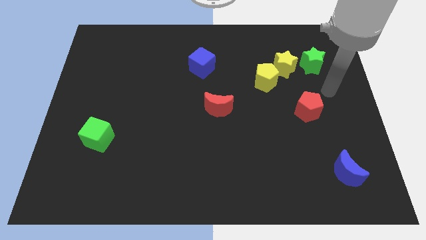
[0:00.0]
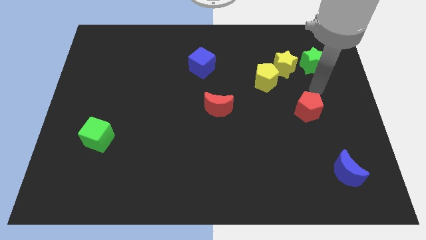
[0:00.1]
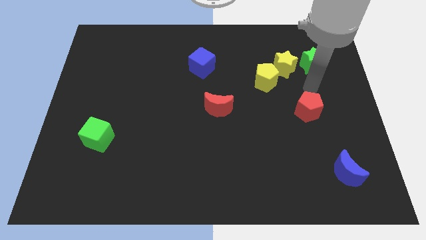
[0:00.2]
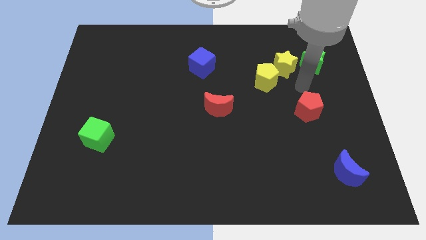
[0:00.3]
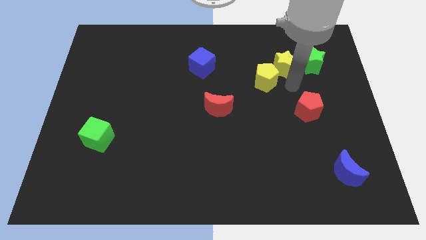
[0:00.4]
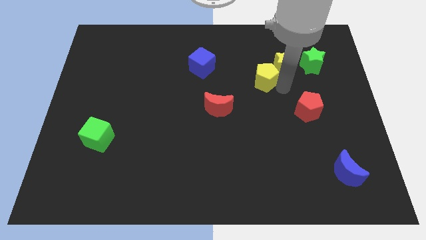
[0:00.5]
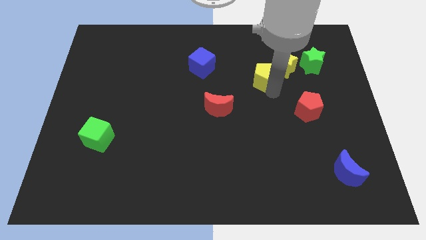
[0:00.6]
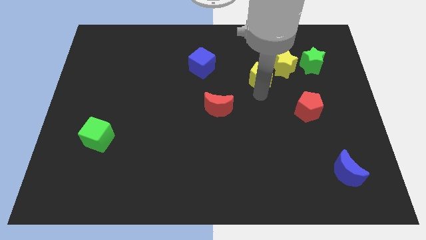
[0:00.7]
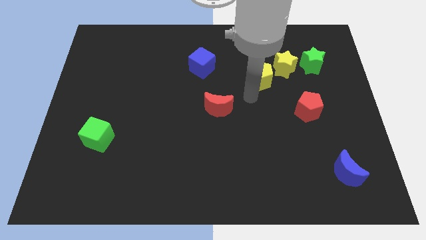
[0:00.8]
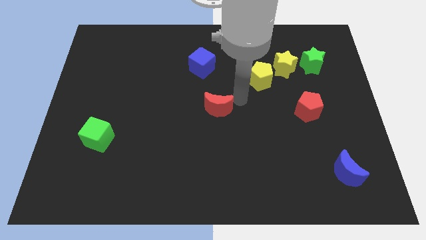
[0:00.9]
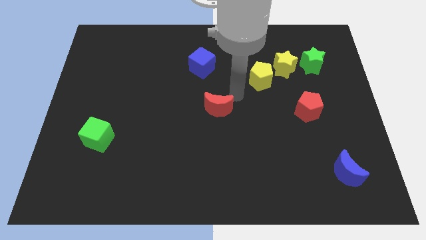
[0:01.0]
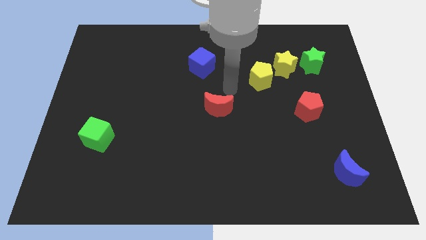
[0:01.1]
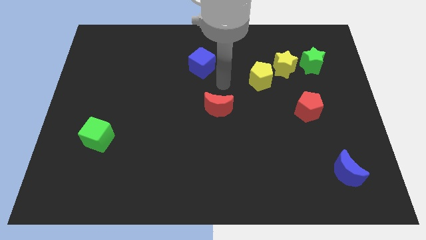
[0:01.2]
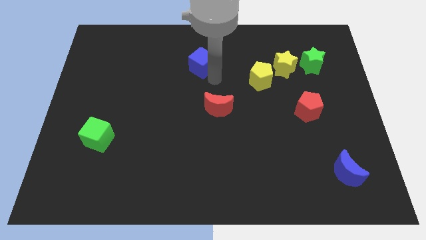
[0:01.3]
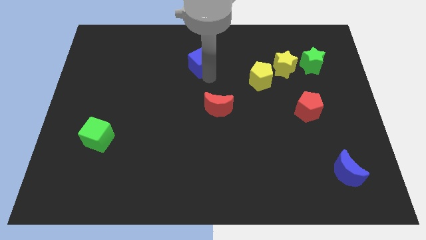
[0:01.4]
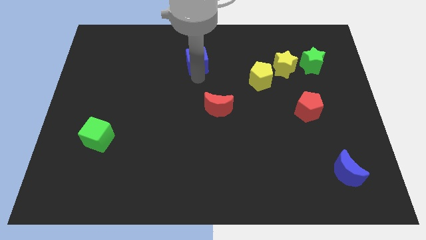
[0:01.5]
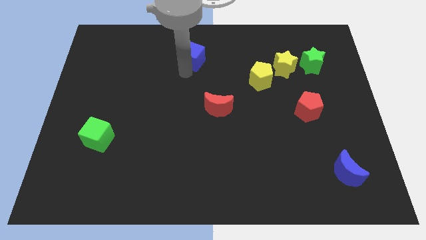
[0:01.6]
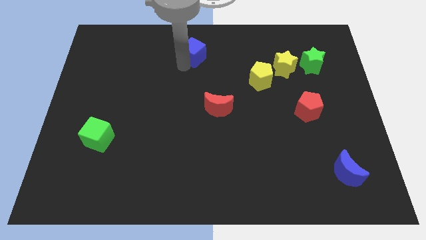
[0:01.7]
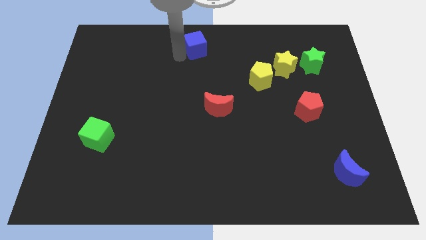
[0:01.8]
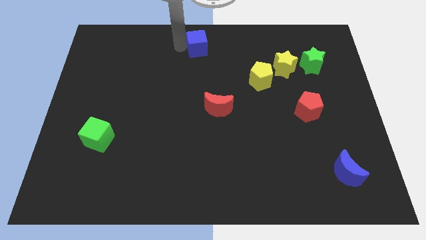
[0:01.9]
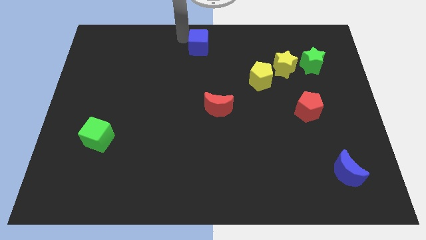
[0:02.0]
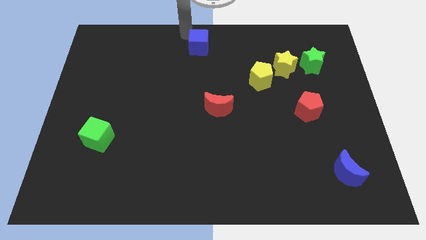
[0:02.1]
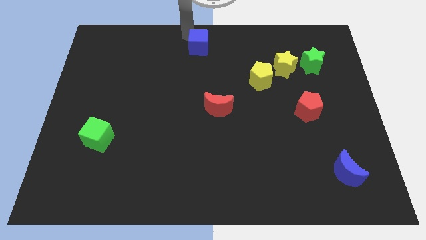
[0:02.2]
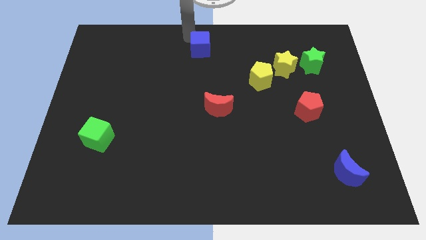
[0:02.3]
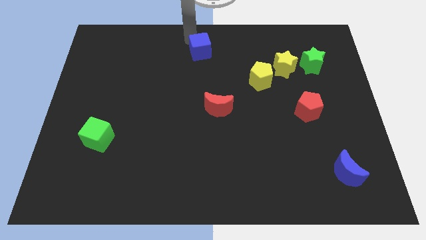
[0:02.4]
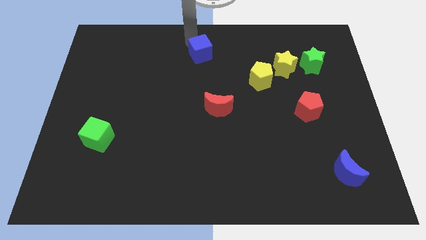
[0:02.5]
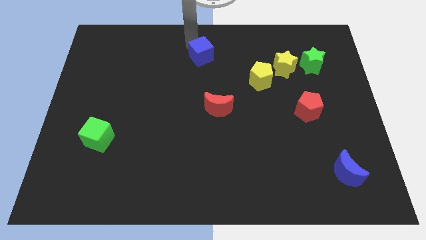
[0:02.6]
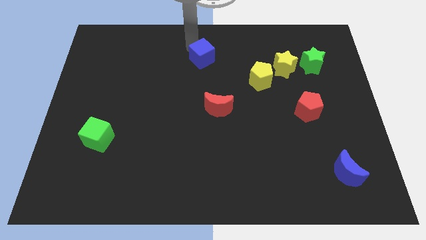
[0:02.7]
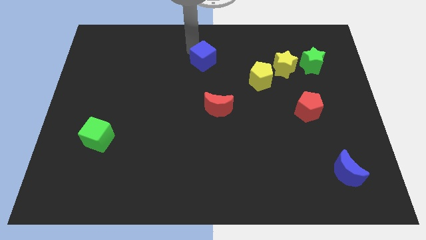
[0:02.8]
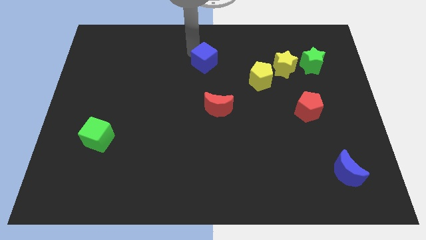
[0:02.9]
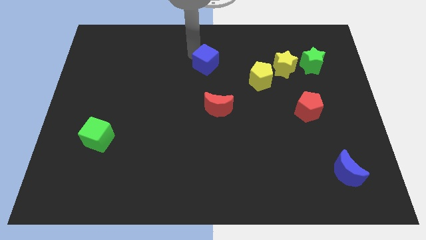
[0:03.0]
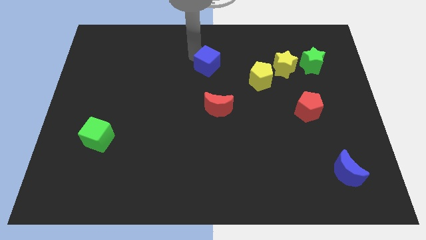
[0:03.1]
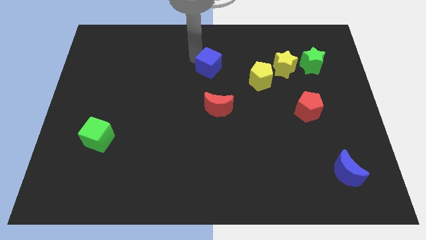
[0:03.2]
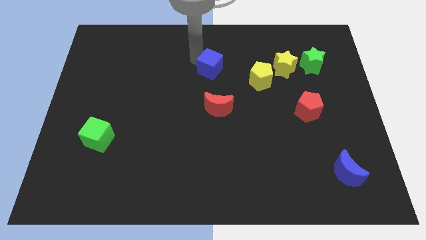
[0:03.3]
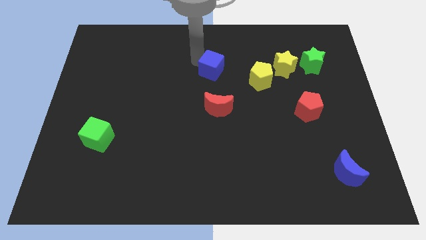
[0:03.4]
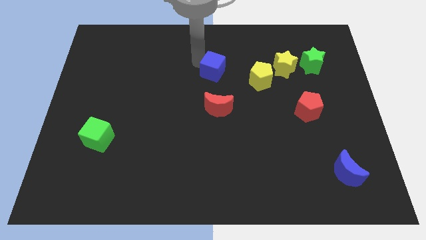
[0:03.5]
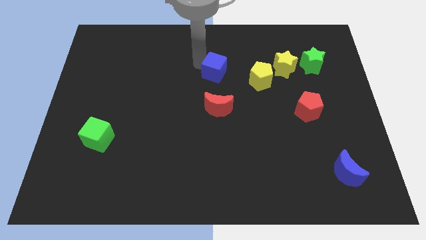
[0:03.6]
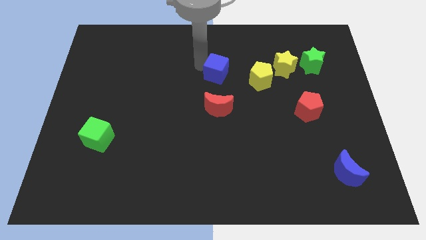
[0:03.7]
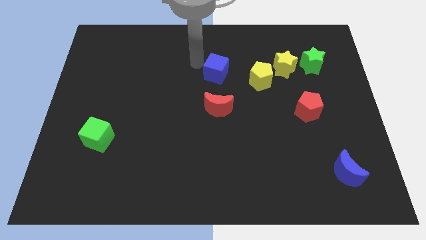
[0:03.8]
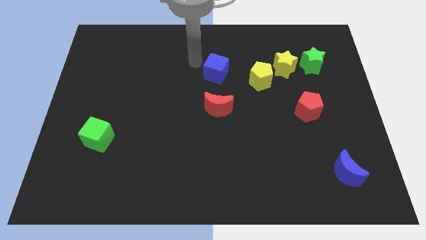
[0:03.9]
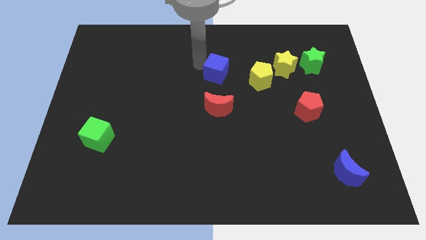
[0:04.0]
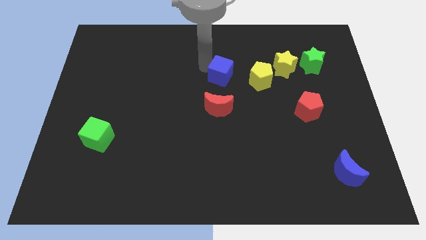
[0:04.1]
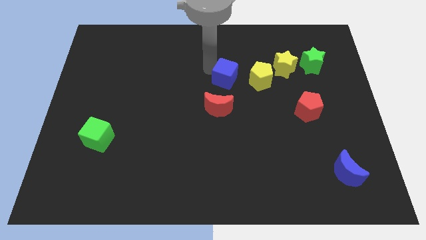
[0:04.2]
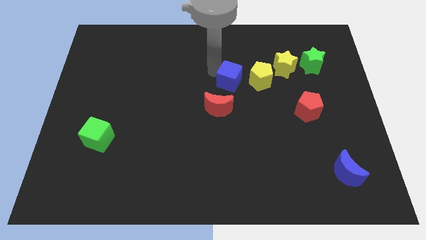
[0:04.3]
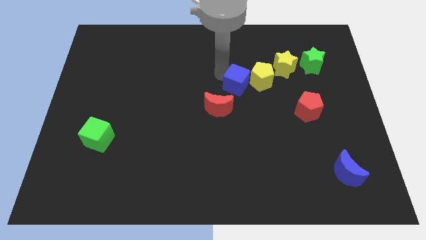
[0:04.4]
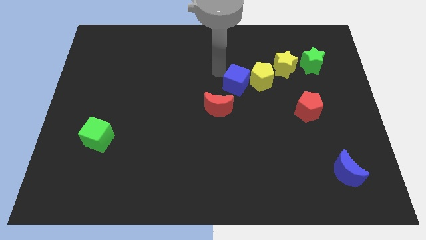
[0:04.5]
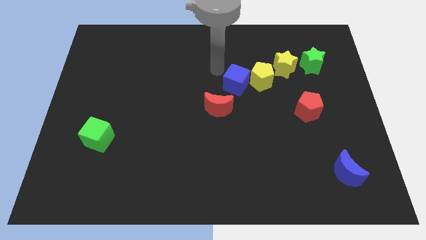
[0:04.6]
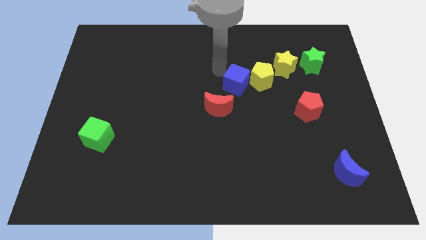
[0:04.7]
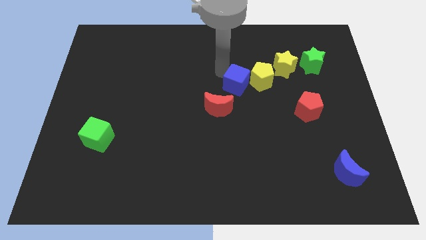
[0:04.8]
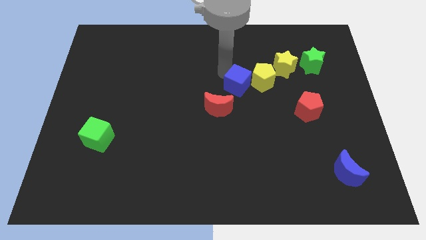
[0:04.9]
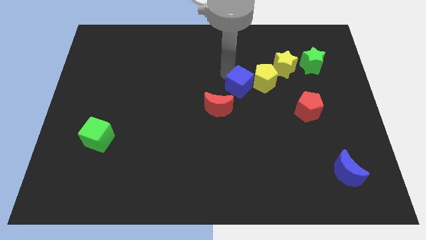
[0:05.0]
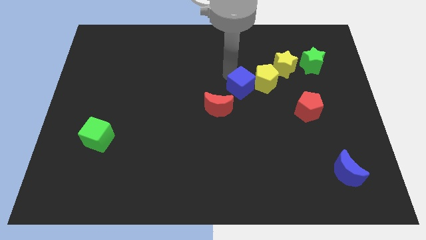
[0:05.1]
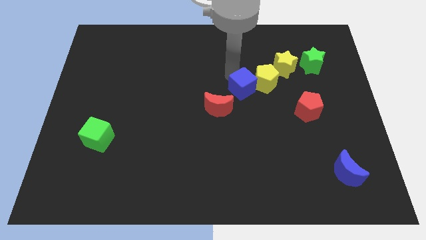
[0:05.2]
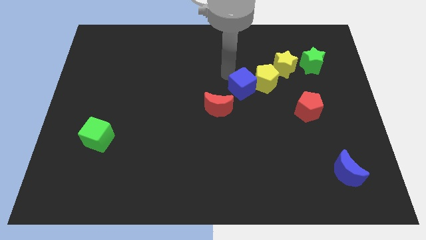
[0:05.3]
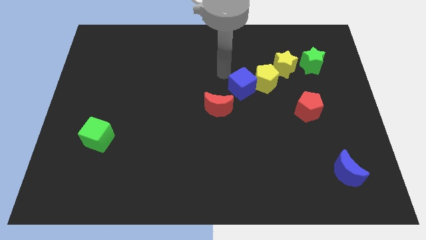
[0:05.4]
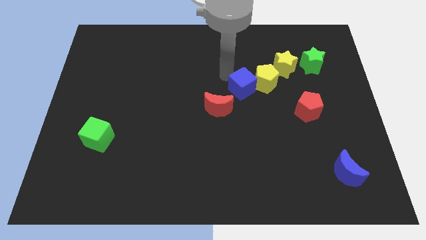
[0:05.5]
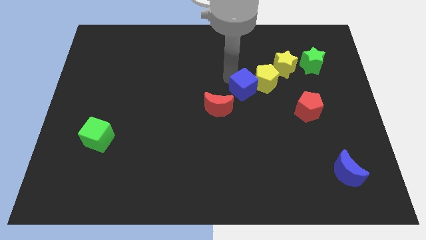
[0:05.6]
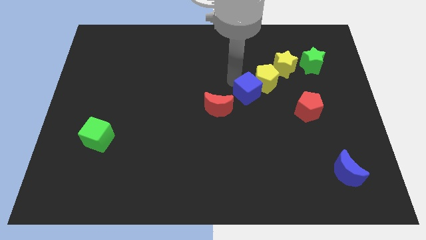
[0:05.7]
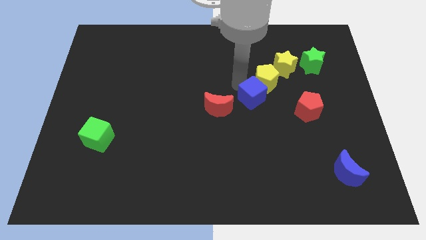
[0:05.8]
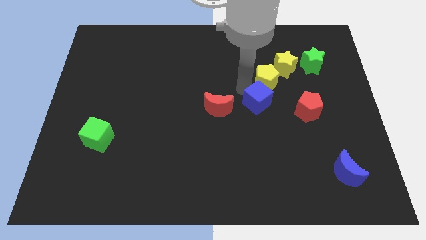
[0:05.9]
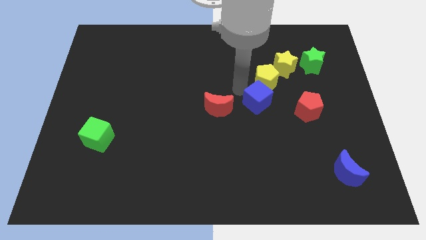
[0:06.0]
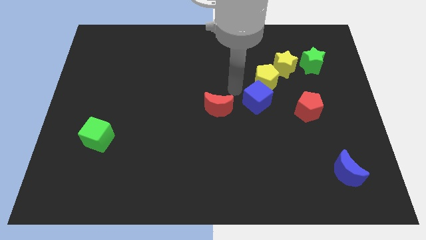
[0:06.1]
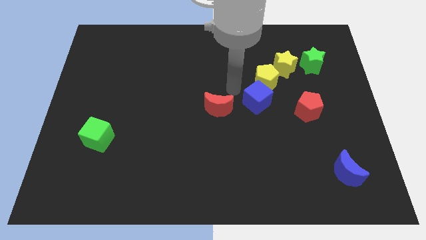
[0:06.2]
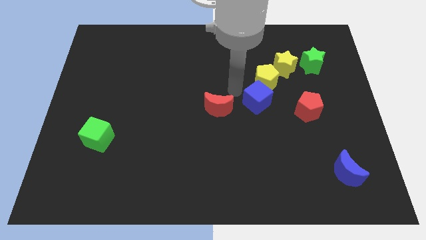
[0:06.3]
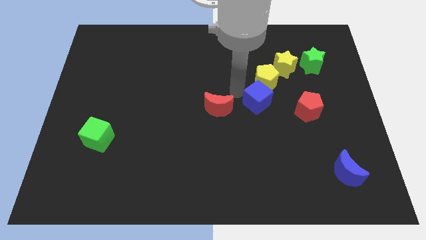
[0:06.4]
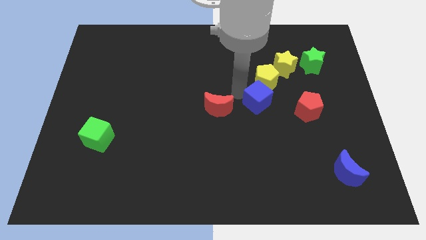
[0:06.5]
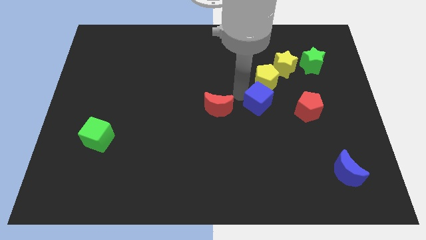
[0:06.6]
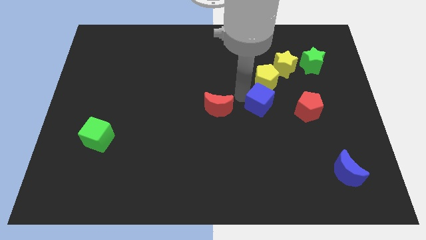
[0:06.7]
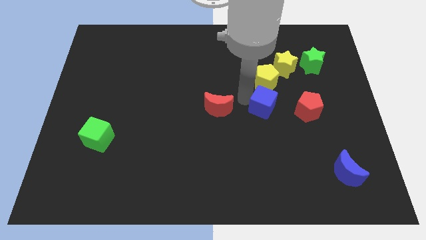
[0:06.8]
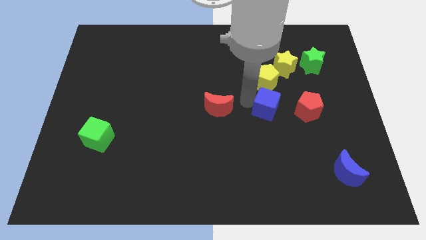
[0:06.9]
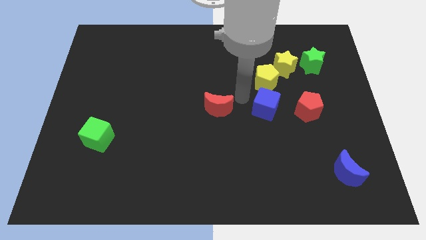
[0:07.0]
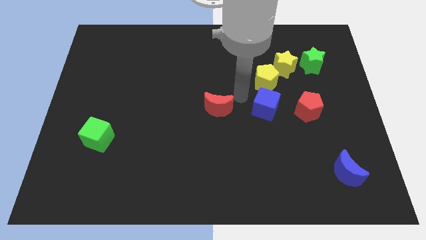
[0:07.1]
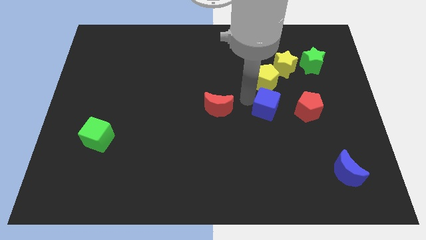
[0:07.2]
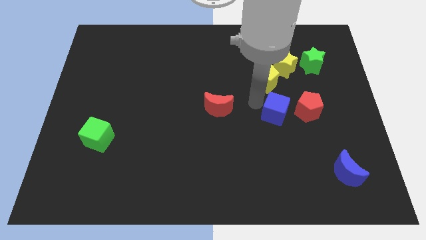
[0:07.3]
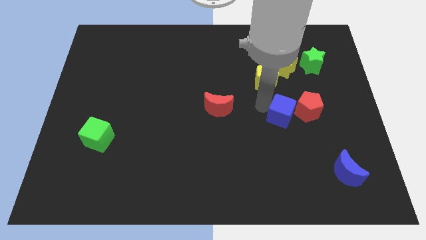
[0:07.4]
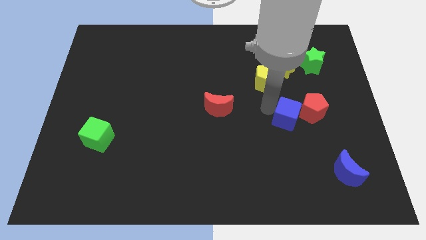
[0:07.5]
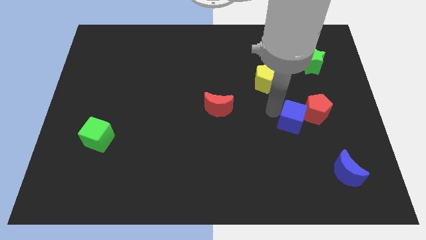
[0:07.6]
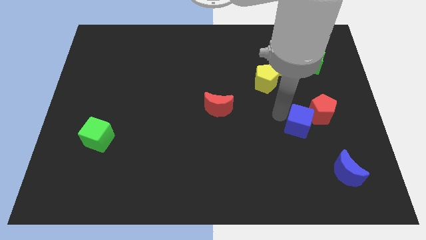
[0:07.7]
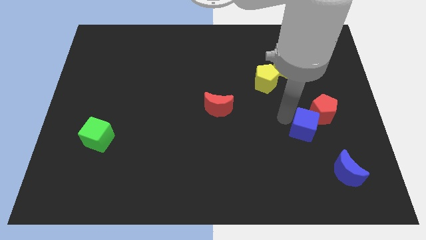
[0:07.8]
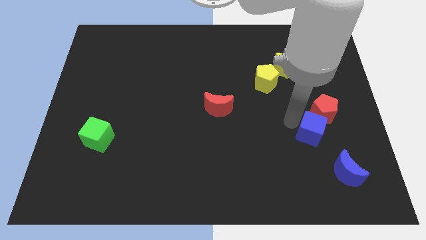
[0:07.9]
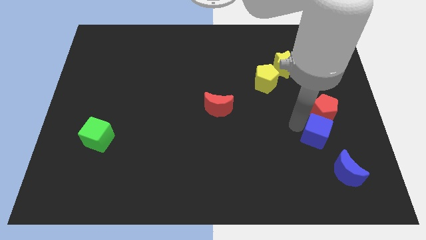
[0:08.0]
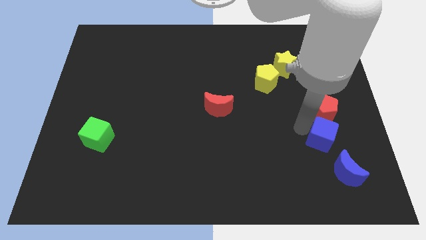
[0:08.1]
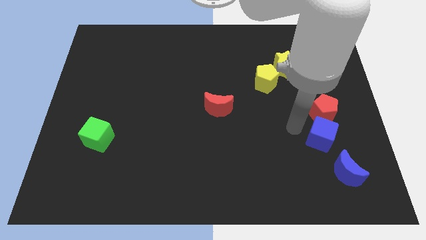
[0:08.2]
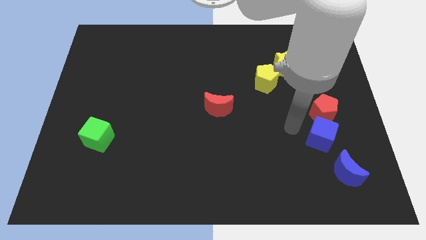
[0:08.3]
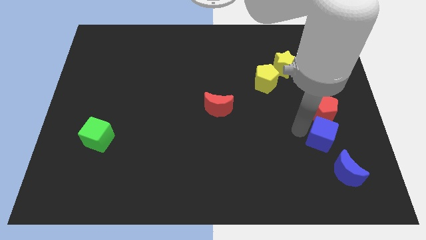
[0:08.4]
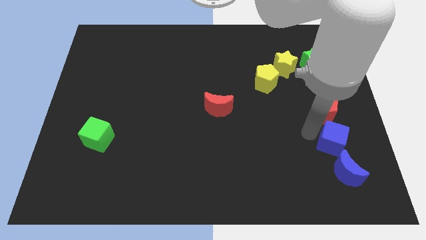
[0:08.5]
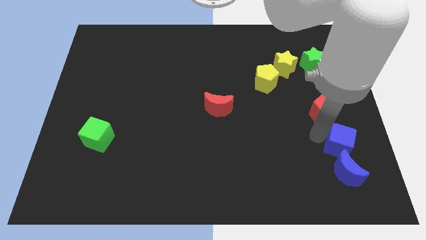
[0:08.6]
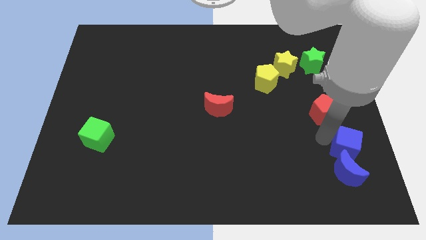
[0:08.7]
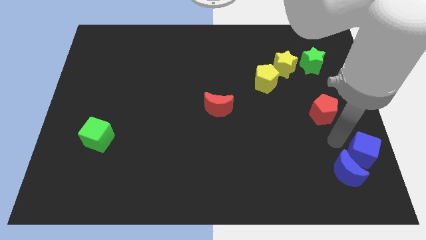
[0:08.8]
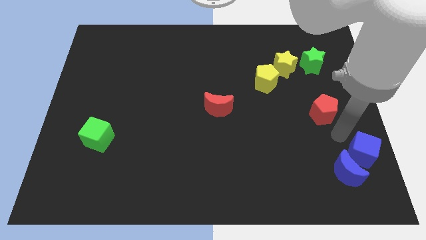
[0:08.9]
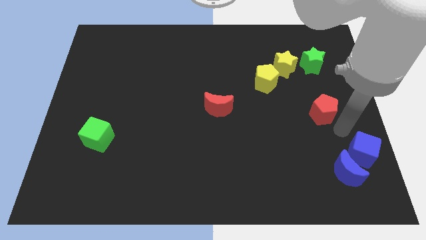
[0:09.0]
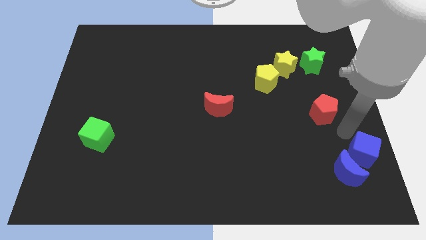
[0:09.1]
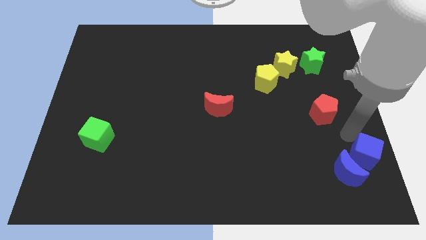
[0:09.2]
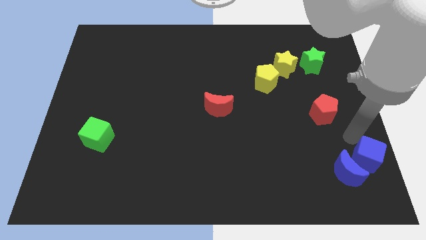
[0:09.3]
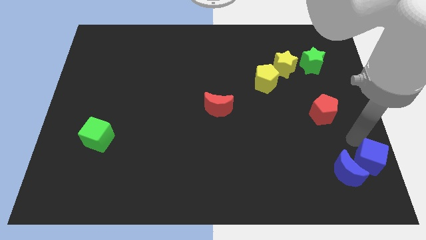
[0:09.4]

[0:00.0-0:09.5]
slide the blue cube to the lower right corner
